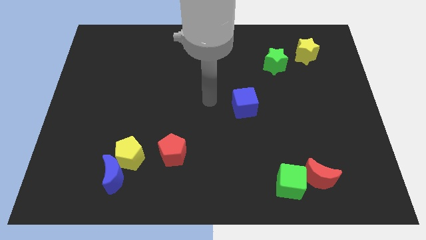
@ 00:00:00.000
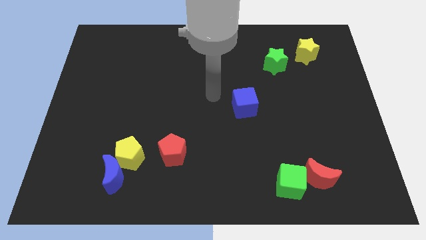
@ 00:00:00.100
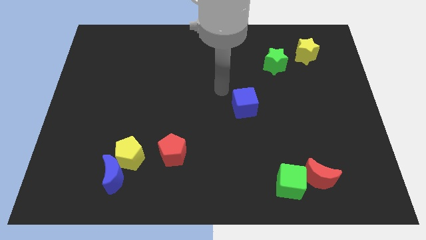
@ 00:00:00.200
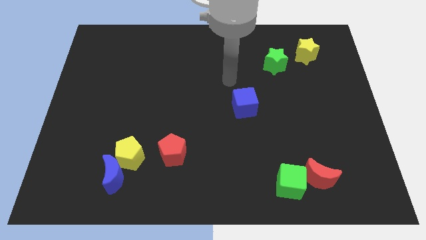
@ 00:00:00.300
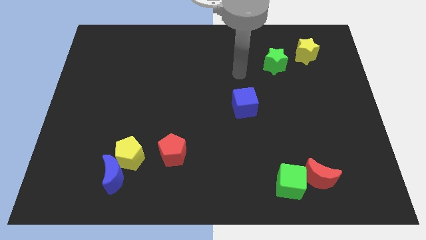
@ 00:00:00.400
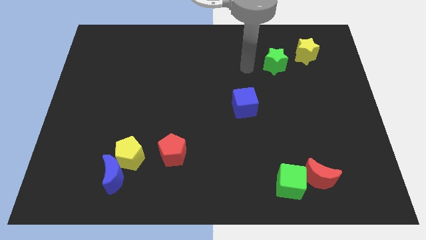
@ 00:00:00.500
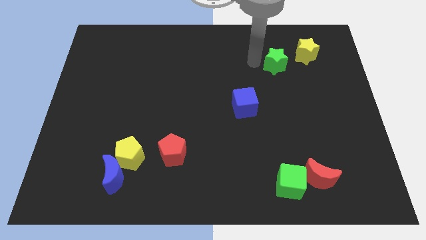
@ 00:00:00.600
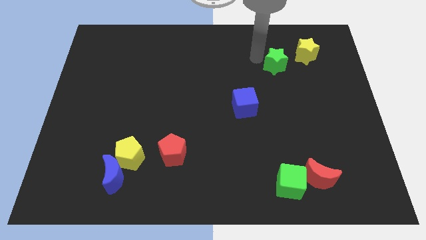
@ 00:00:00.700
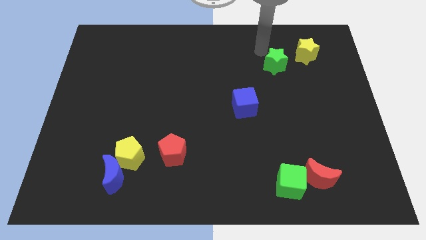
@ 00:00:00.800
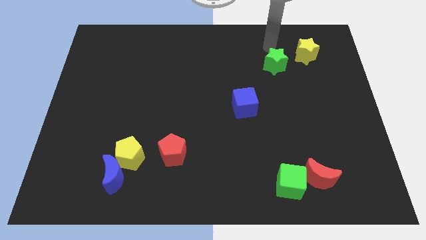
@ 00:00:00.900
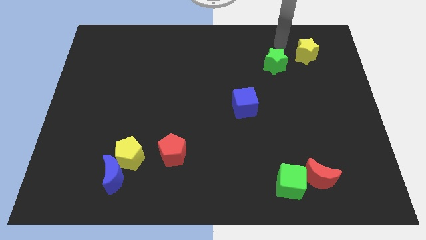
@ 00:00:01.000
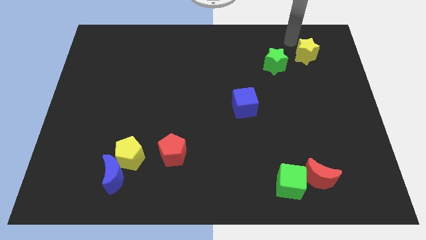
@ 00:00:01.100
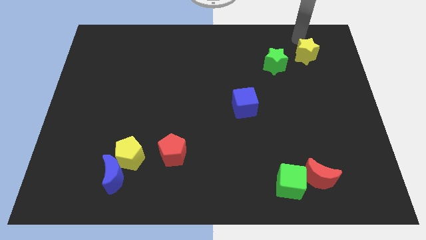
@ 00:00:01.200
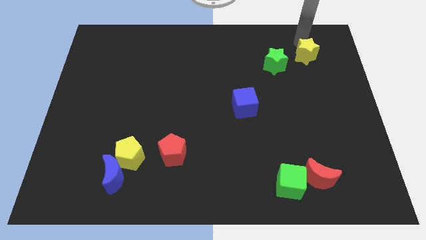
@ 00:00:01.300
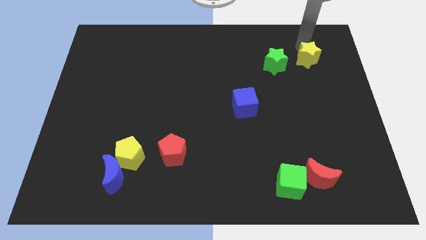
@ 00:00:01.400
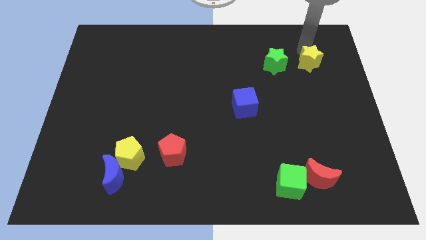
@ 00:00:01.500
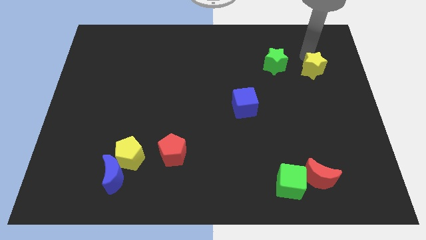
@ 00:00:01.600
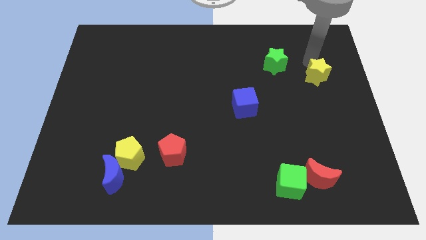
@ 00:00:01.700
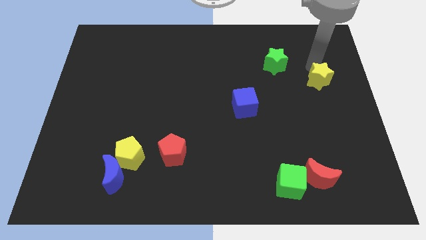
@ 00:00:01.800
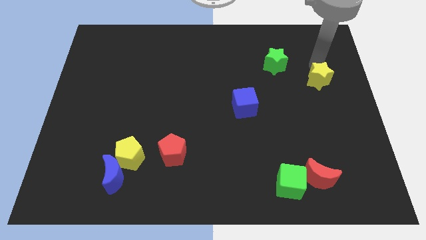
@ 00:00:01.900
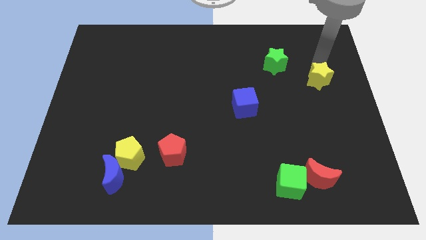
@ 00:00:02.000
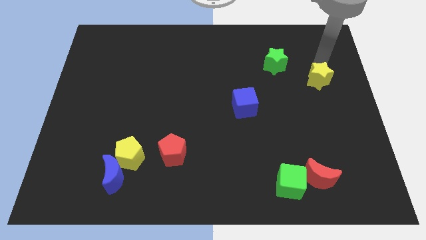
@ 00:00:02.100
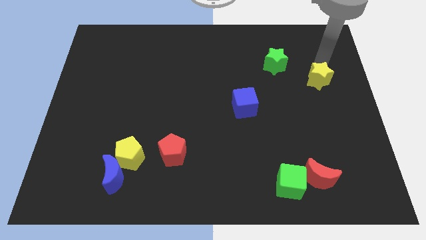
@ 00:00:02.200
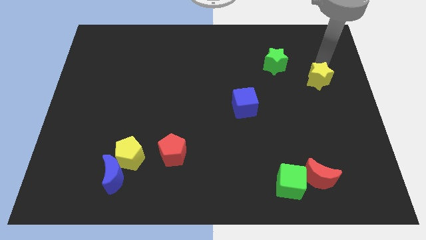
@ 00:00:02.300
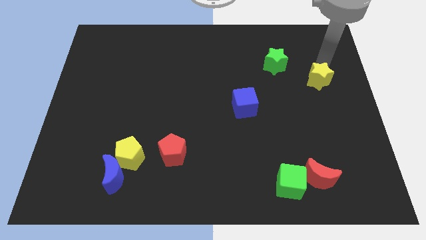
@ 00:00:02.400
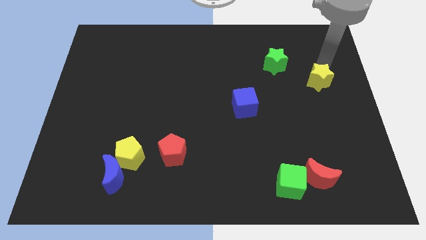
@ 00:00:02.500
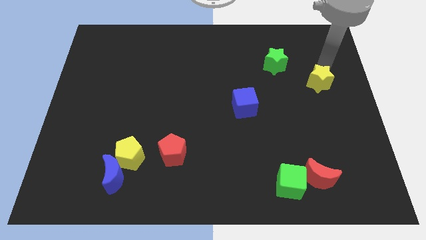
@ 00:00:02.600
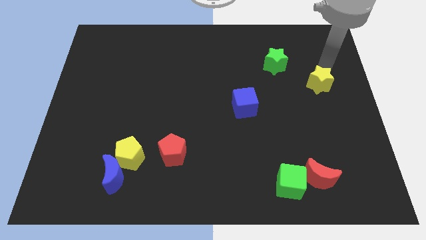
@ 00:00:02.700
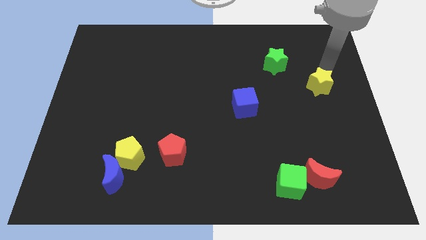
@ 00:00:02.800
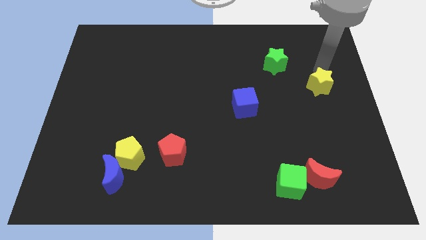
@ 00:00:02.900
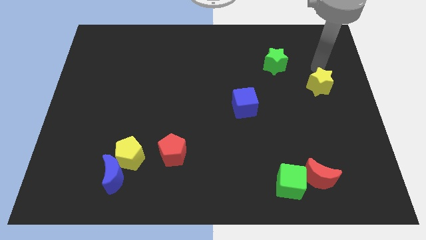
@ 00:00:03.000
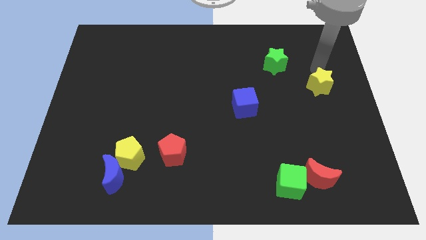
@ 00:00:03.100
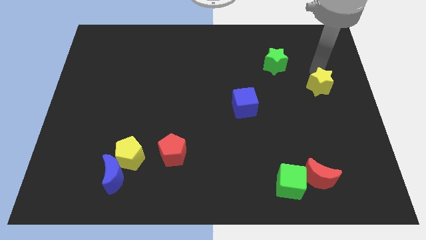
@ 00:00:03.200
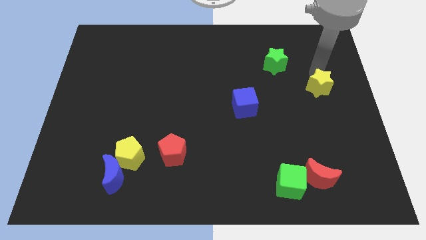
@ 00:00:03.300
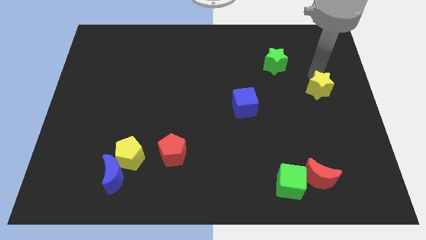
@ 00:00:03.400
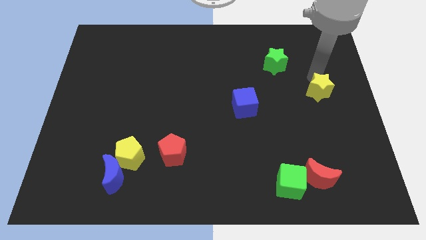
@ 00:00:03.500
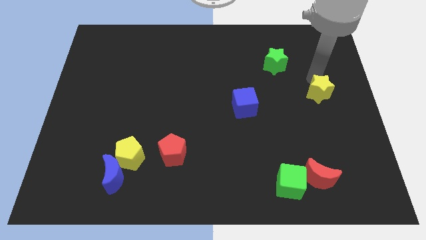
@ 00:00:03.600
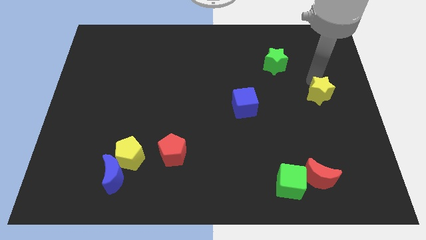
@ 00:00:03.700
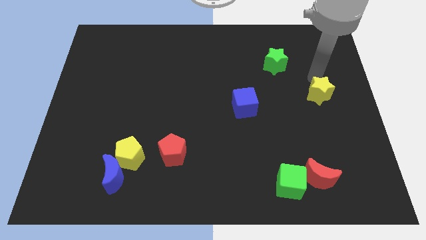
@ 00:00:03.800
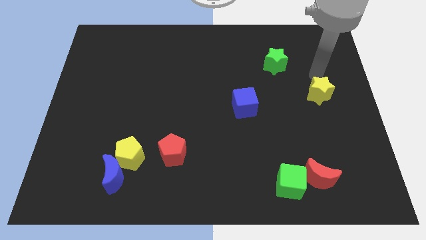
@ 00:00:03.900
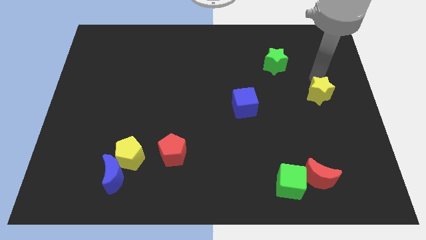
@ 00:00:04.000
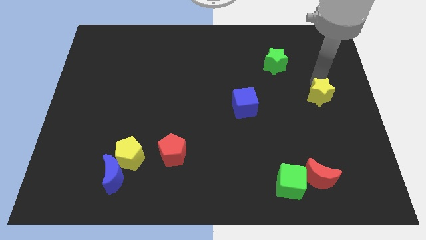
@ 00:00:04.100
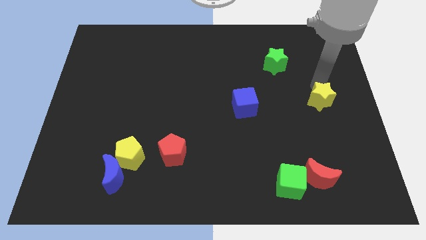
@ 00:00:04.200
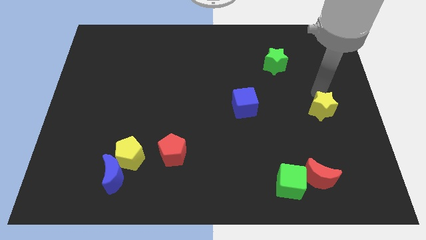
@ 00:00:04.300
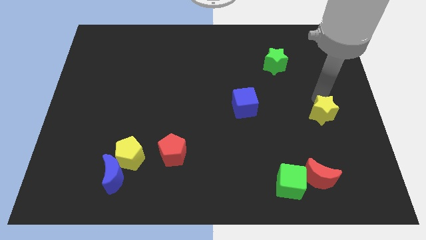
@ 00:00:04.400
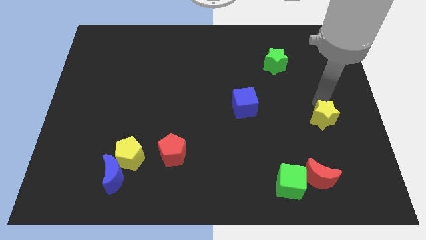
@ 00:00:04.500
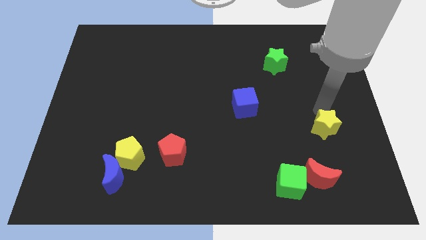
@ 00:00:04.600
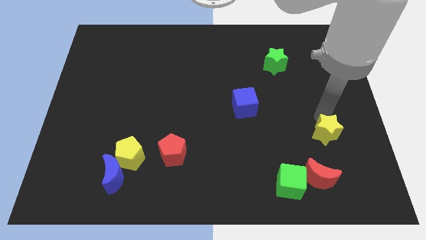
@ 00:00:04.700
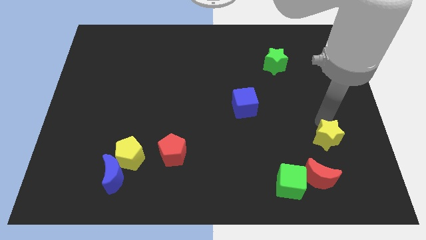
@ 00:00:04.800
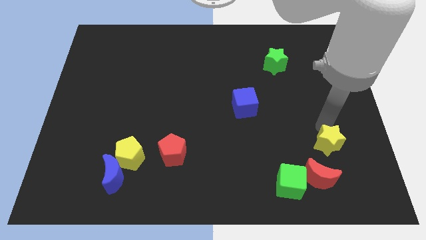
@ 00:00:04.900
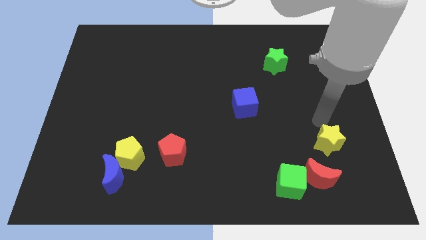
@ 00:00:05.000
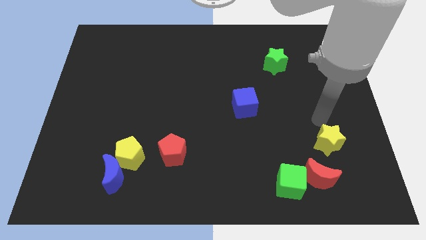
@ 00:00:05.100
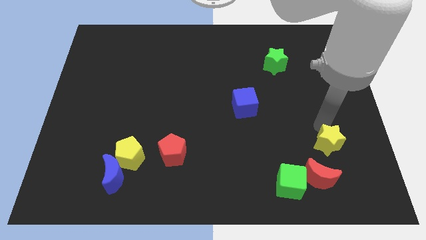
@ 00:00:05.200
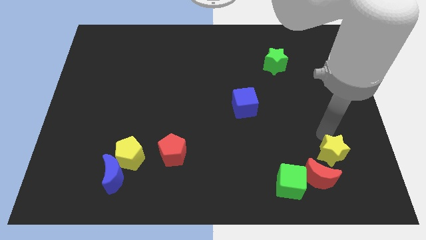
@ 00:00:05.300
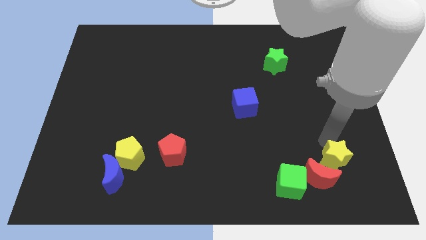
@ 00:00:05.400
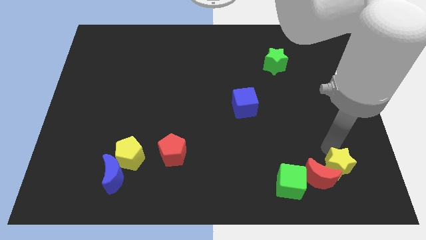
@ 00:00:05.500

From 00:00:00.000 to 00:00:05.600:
move the yellow star right of the green cube

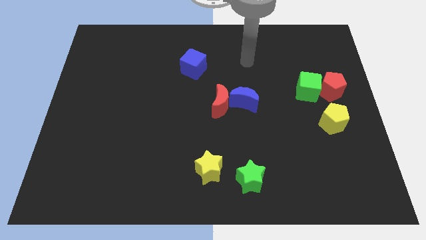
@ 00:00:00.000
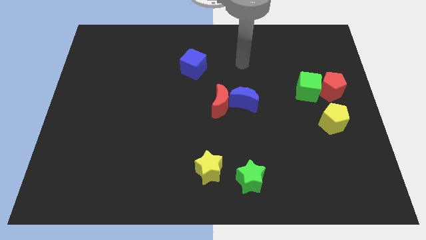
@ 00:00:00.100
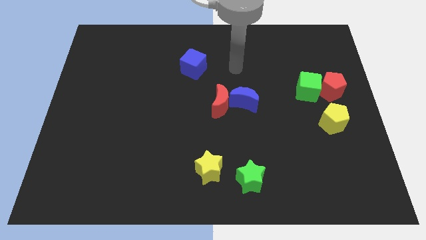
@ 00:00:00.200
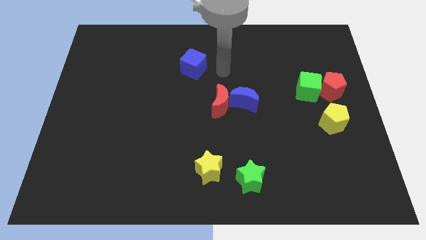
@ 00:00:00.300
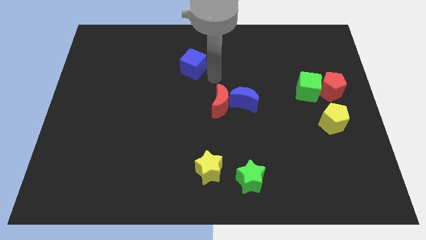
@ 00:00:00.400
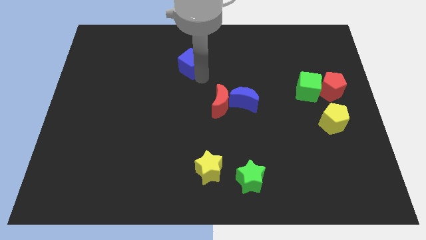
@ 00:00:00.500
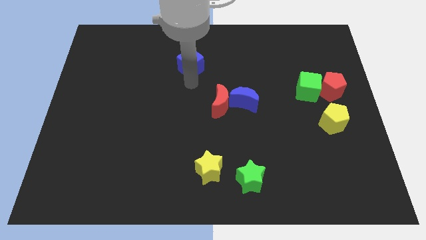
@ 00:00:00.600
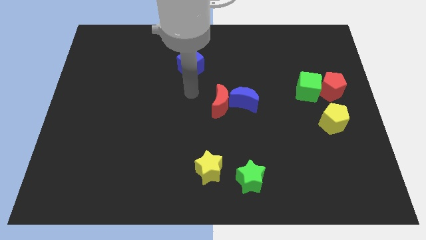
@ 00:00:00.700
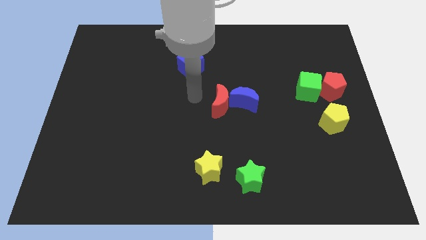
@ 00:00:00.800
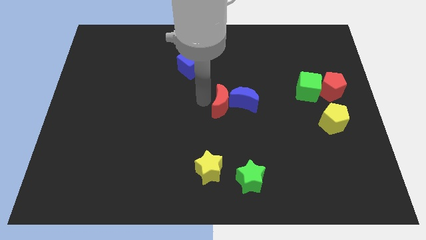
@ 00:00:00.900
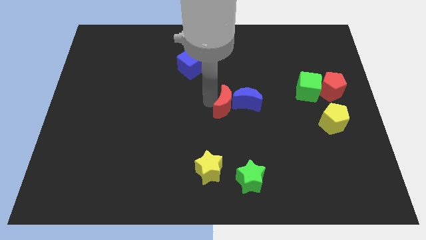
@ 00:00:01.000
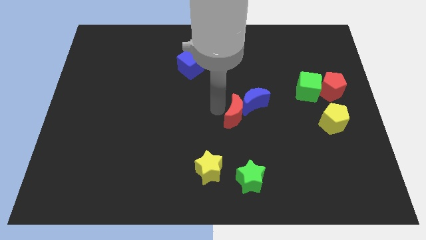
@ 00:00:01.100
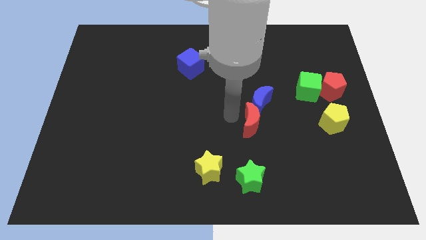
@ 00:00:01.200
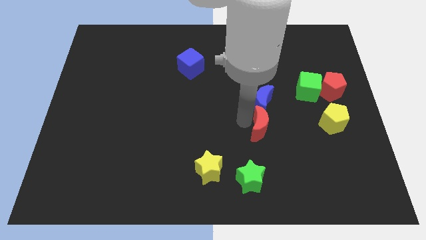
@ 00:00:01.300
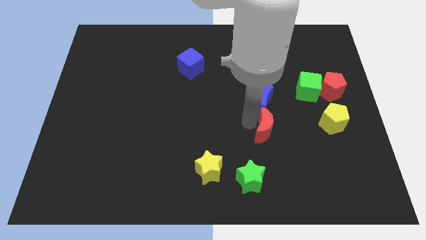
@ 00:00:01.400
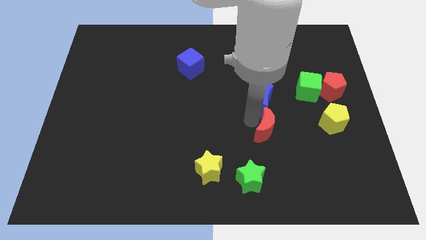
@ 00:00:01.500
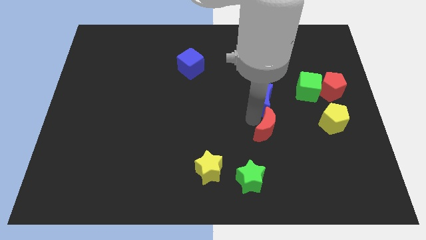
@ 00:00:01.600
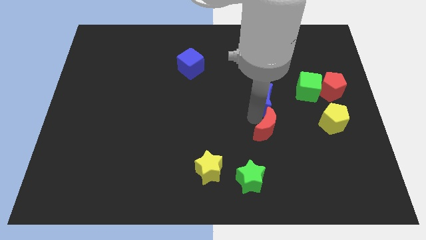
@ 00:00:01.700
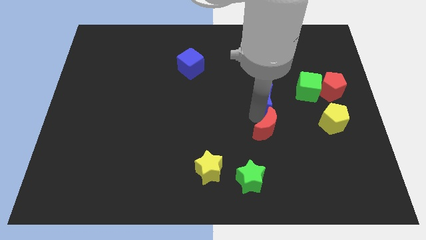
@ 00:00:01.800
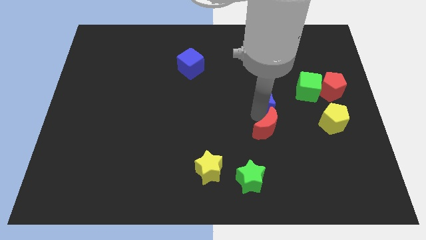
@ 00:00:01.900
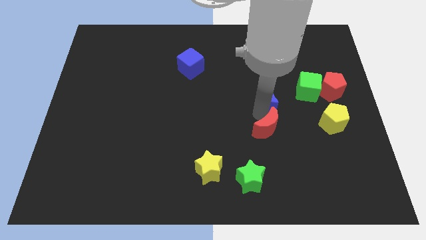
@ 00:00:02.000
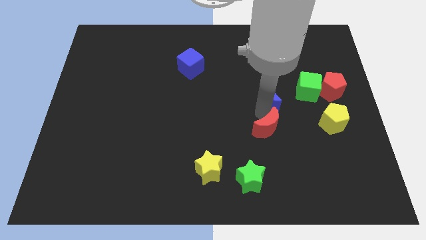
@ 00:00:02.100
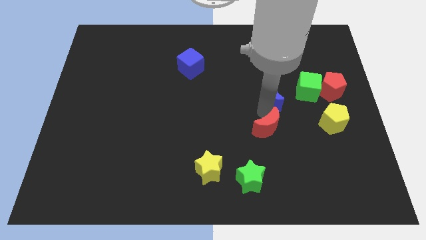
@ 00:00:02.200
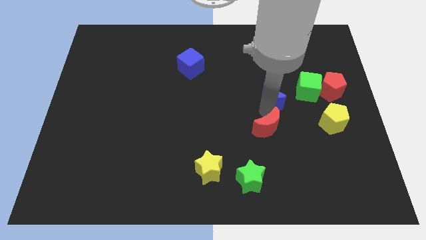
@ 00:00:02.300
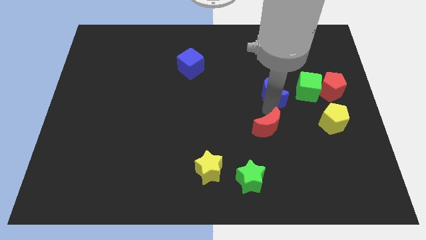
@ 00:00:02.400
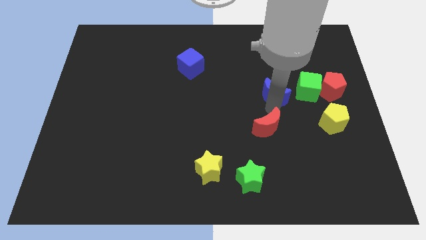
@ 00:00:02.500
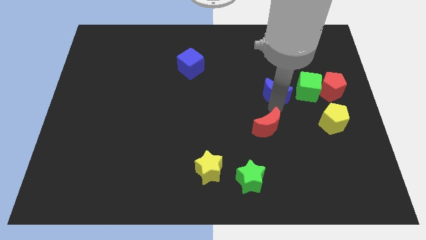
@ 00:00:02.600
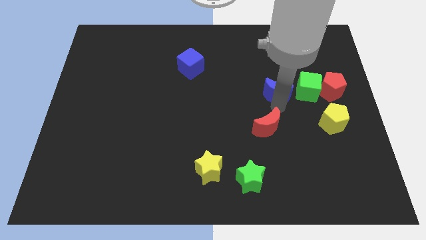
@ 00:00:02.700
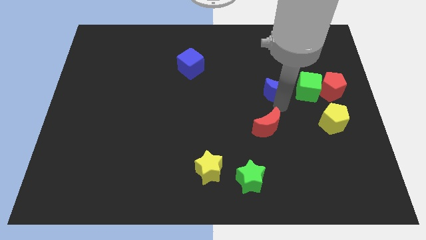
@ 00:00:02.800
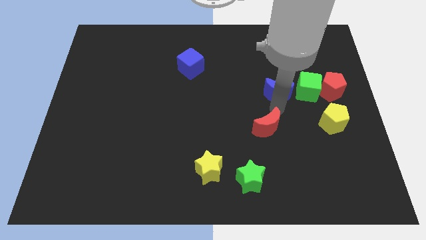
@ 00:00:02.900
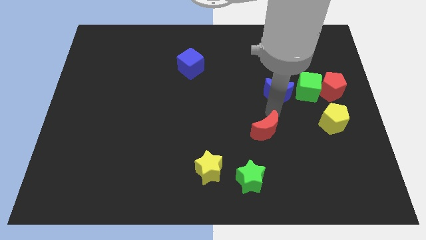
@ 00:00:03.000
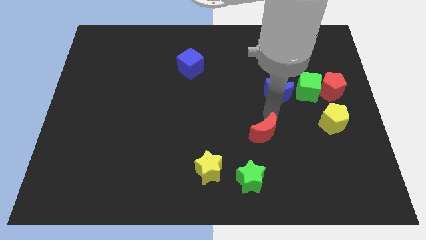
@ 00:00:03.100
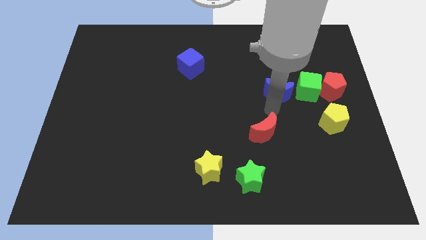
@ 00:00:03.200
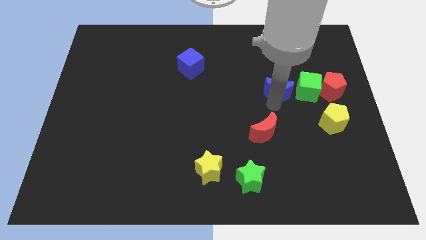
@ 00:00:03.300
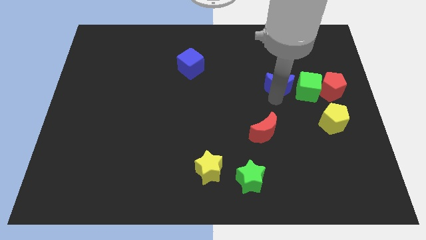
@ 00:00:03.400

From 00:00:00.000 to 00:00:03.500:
put the blue moon to the top left of the green cube
